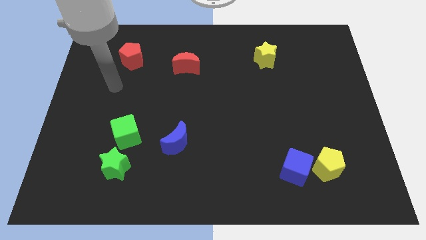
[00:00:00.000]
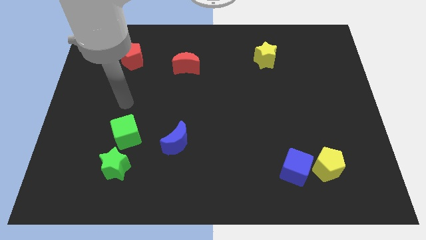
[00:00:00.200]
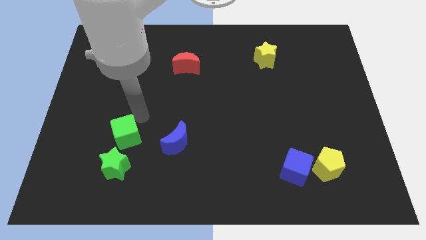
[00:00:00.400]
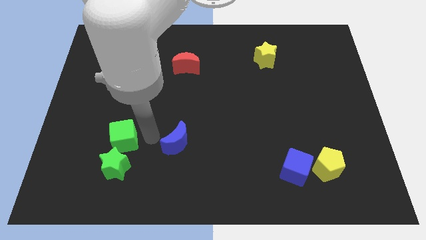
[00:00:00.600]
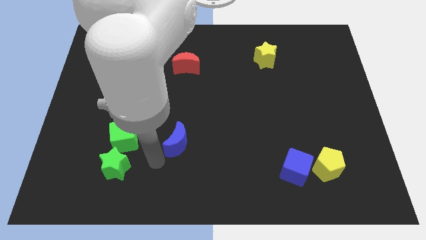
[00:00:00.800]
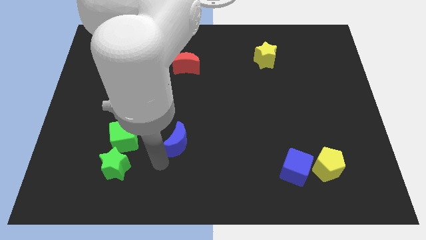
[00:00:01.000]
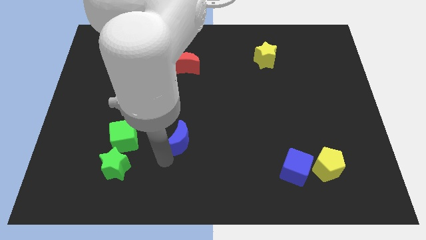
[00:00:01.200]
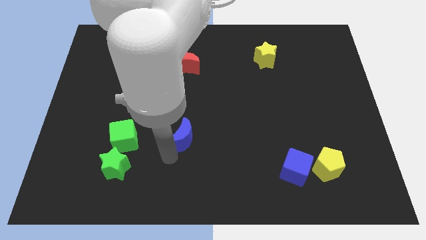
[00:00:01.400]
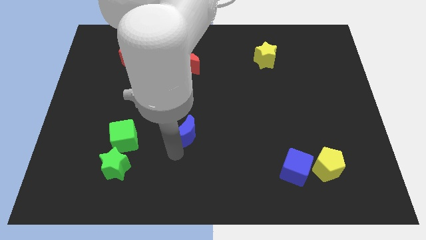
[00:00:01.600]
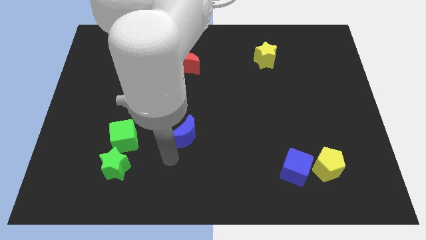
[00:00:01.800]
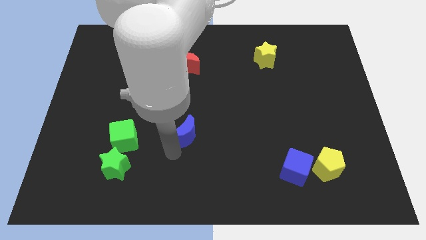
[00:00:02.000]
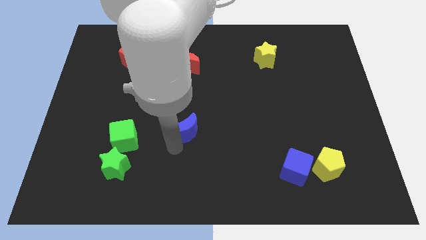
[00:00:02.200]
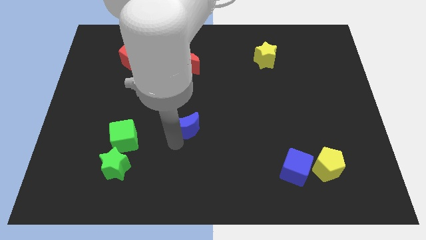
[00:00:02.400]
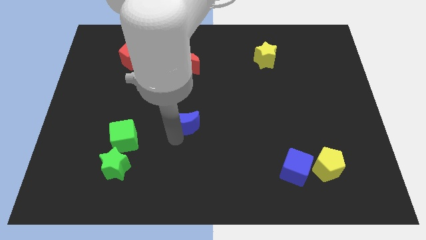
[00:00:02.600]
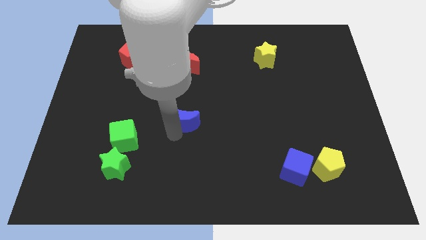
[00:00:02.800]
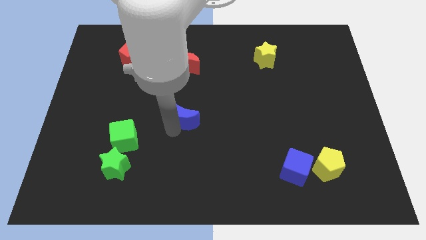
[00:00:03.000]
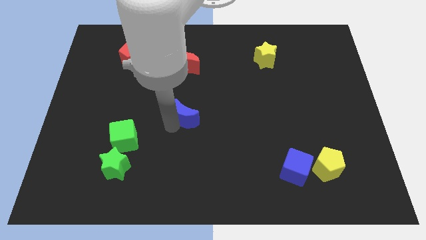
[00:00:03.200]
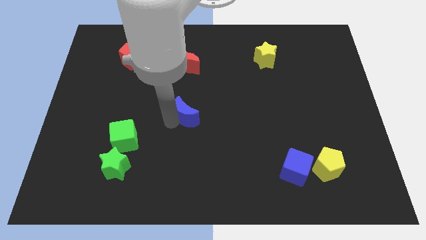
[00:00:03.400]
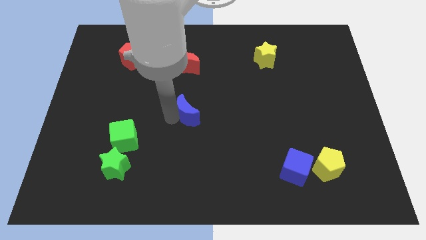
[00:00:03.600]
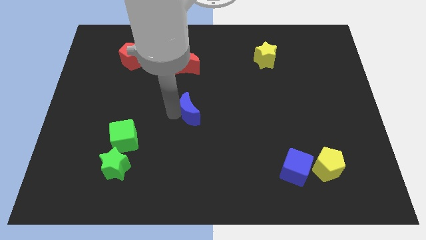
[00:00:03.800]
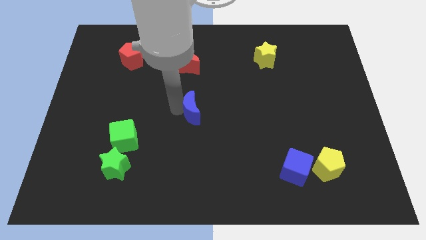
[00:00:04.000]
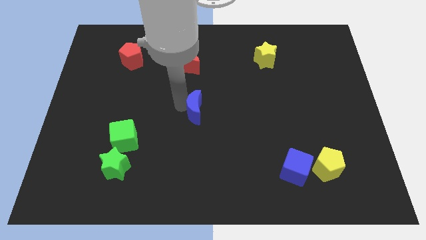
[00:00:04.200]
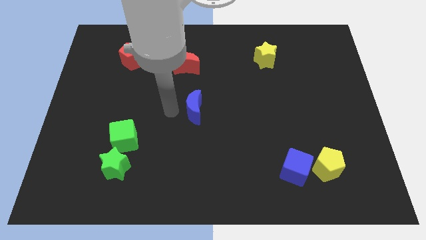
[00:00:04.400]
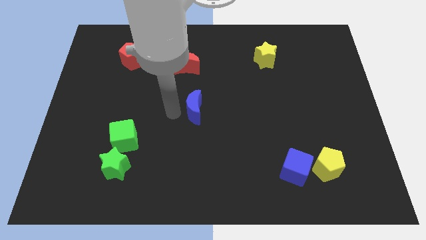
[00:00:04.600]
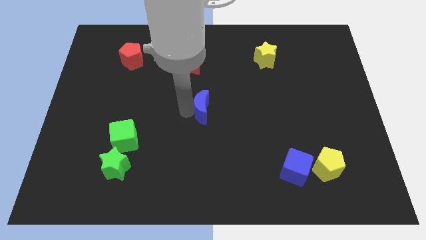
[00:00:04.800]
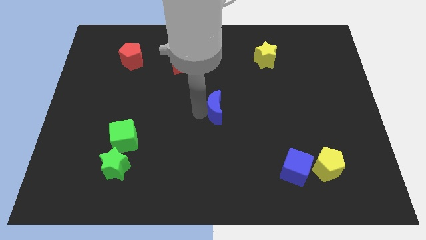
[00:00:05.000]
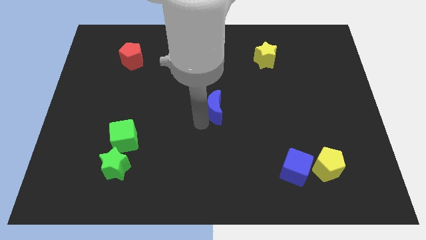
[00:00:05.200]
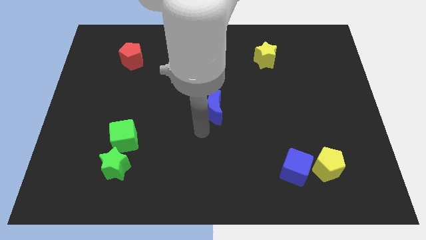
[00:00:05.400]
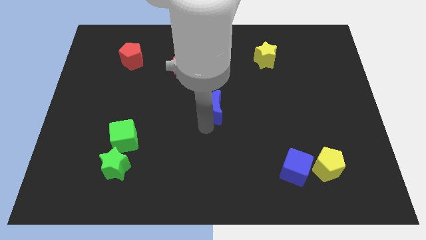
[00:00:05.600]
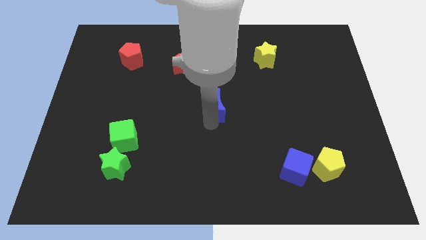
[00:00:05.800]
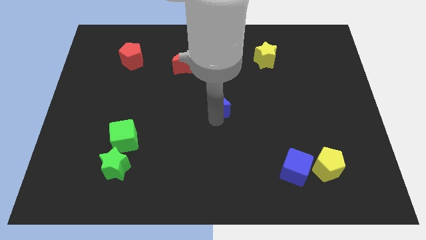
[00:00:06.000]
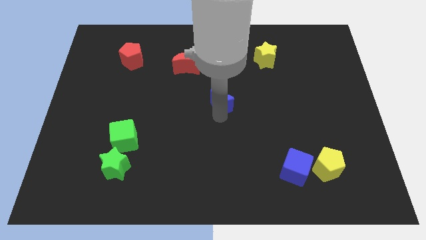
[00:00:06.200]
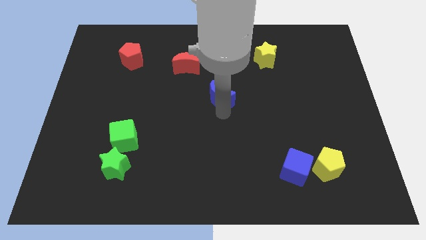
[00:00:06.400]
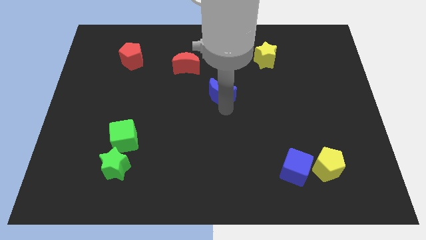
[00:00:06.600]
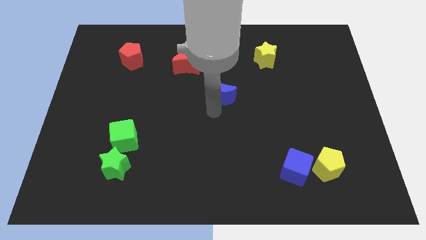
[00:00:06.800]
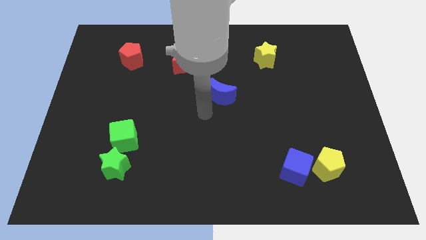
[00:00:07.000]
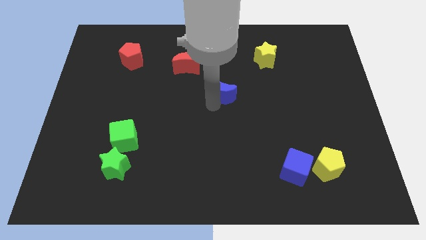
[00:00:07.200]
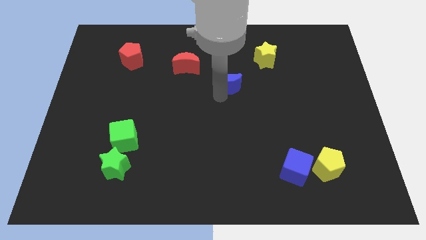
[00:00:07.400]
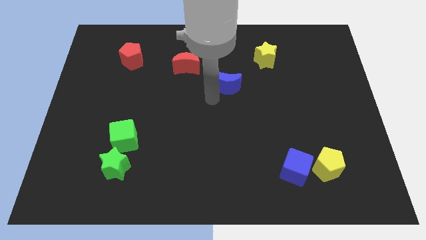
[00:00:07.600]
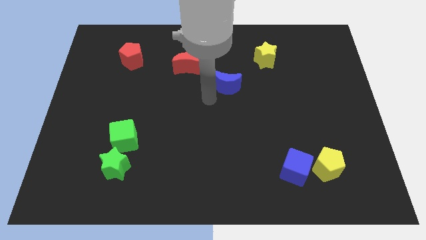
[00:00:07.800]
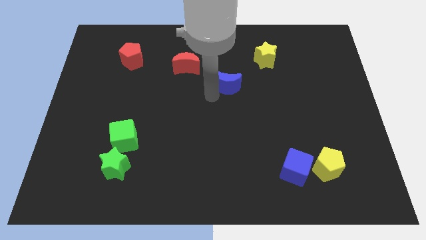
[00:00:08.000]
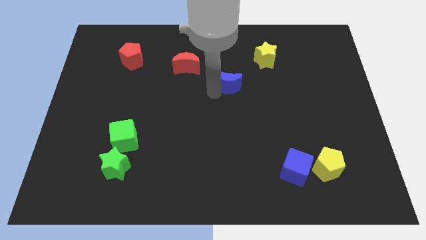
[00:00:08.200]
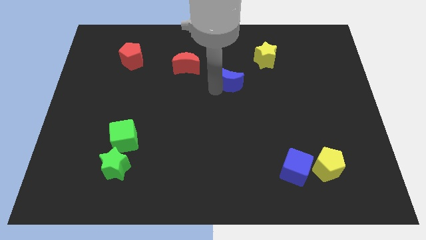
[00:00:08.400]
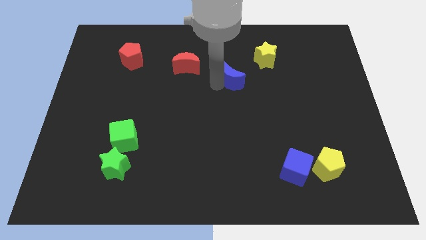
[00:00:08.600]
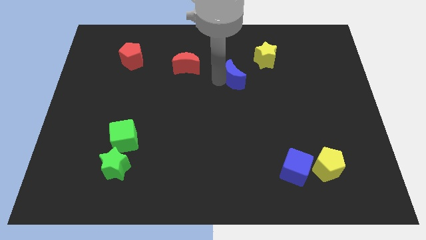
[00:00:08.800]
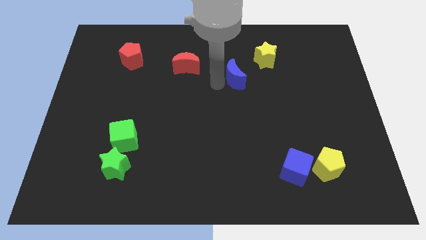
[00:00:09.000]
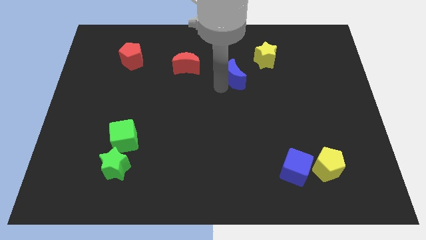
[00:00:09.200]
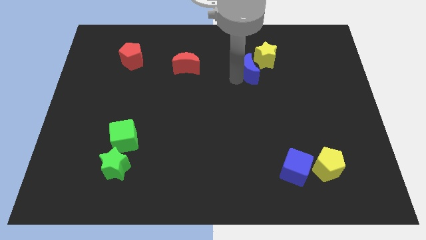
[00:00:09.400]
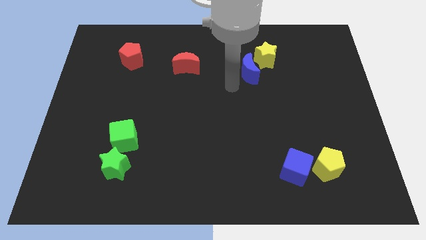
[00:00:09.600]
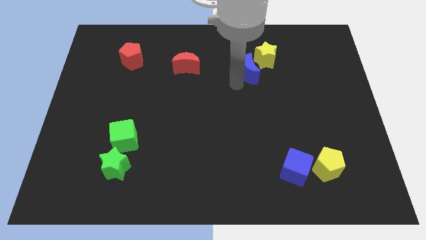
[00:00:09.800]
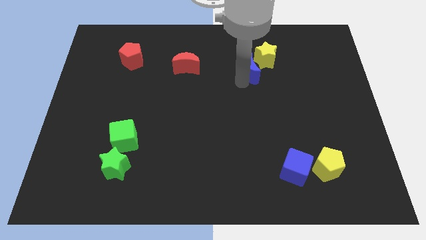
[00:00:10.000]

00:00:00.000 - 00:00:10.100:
move the blue moon close to the yellow star

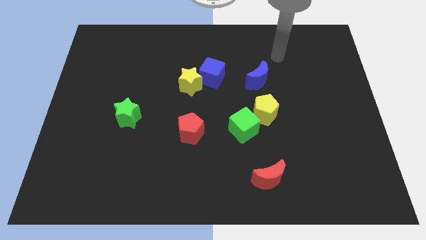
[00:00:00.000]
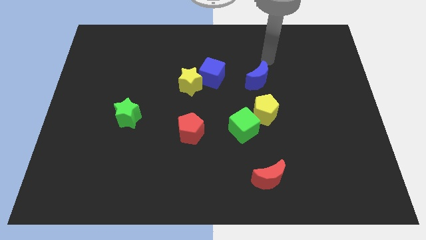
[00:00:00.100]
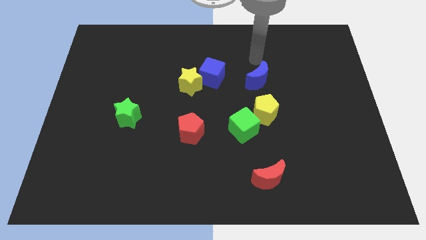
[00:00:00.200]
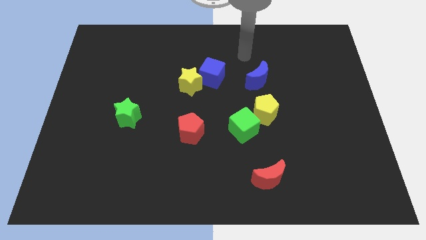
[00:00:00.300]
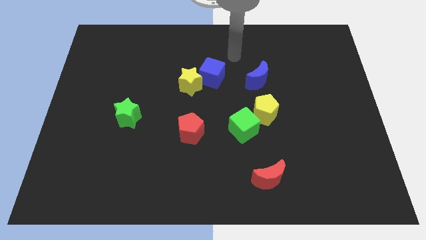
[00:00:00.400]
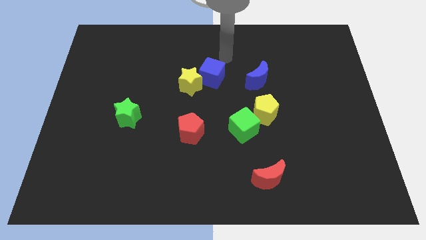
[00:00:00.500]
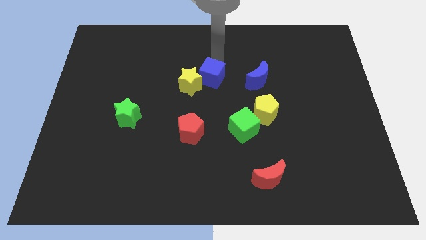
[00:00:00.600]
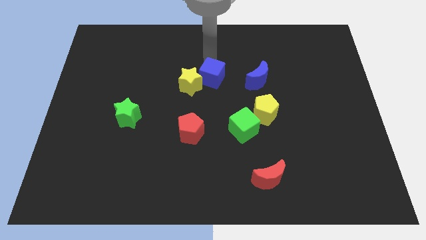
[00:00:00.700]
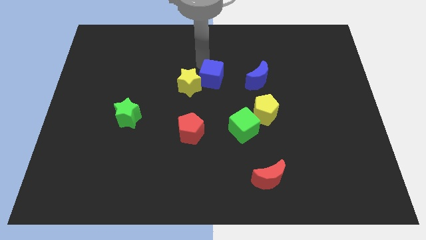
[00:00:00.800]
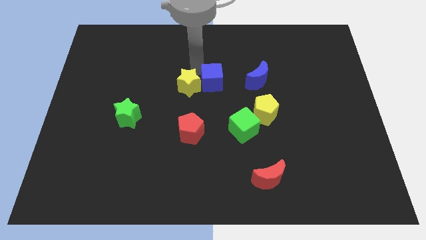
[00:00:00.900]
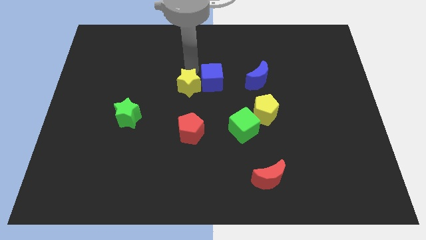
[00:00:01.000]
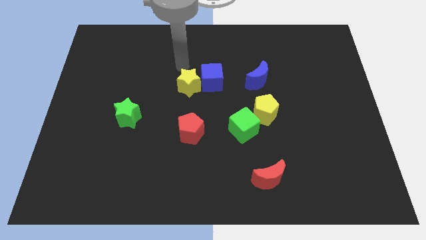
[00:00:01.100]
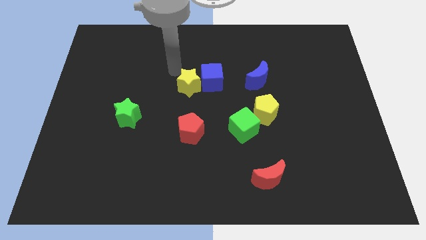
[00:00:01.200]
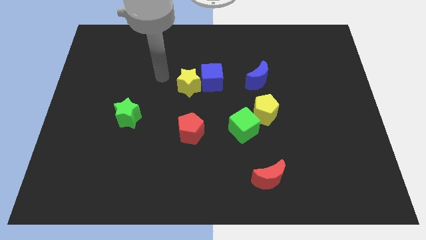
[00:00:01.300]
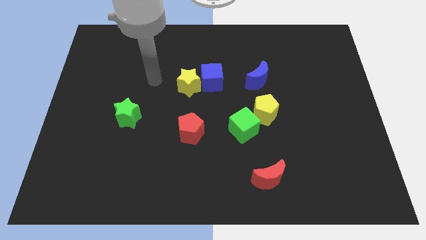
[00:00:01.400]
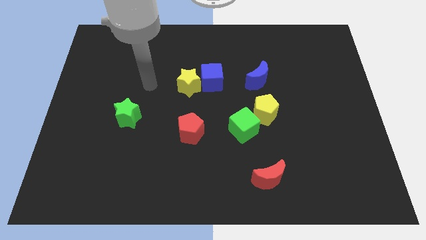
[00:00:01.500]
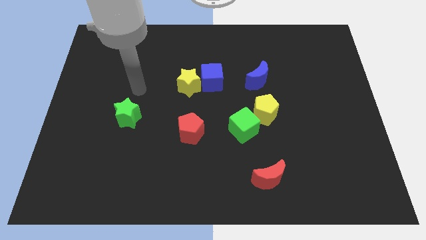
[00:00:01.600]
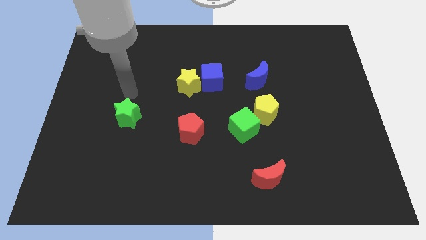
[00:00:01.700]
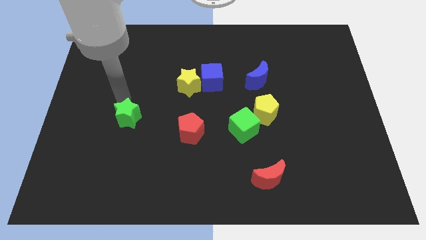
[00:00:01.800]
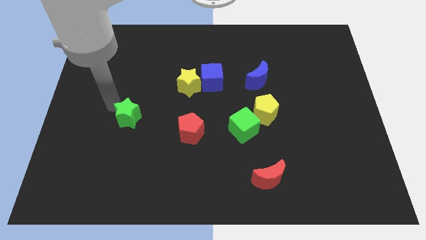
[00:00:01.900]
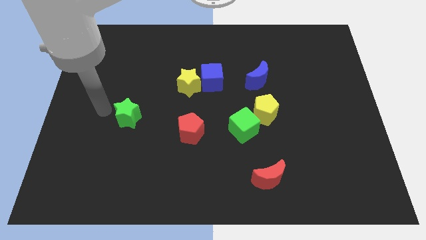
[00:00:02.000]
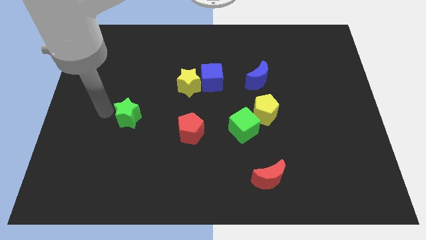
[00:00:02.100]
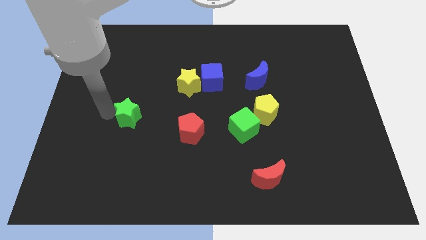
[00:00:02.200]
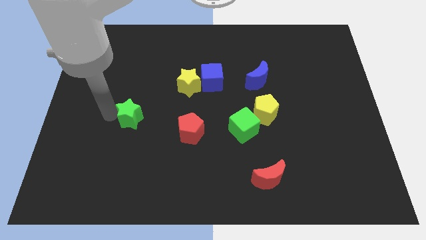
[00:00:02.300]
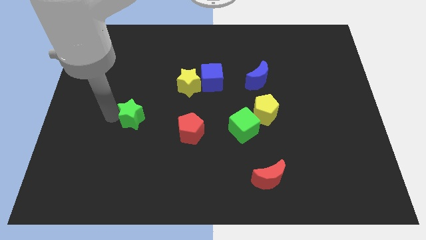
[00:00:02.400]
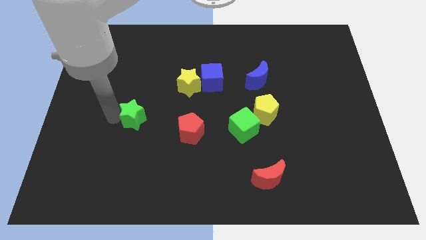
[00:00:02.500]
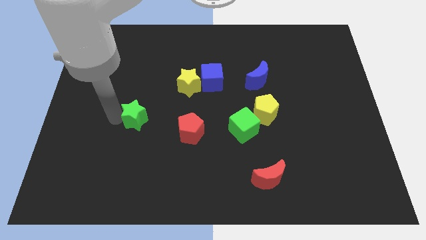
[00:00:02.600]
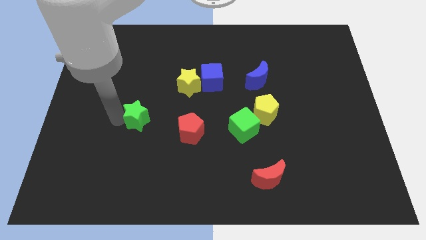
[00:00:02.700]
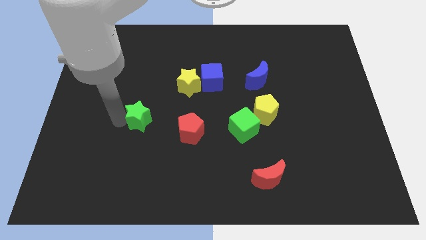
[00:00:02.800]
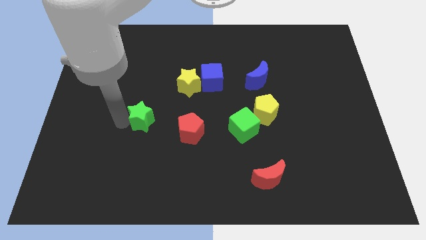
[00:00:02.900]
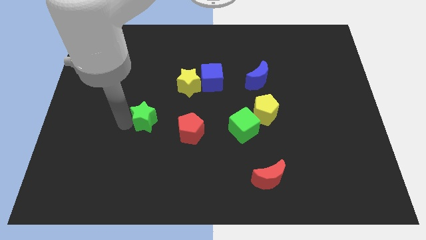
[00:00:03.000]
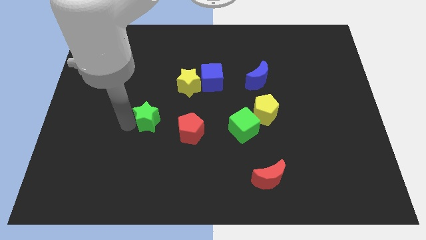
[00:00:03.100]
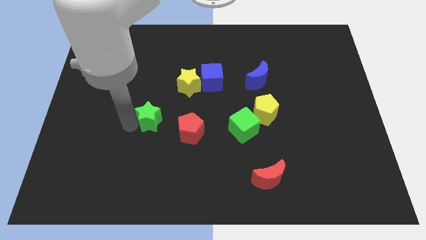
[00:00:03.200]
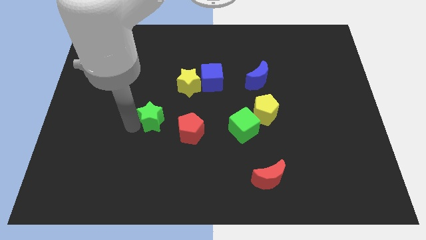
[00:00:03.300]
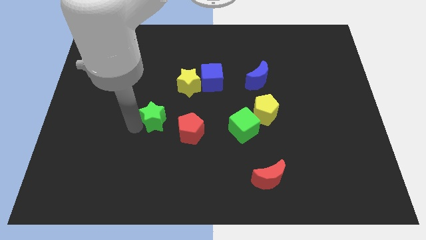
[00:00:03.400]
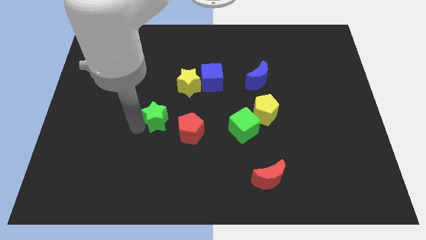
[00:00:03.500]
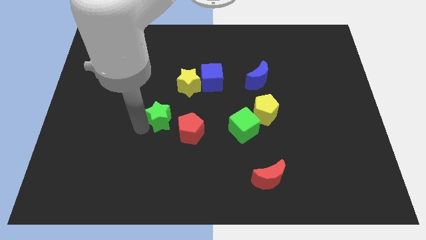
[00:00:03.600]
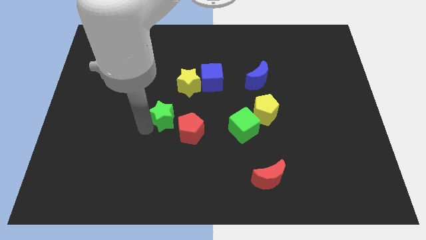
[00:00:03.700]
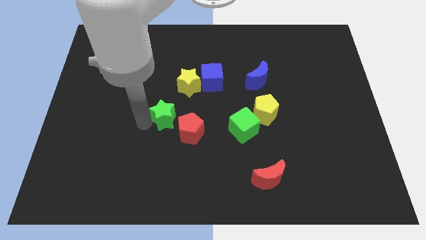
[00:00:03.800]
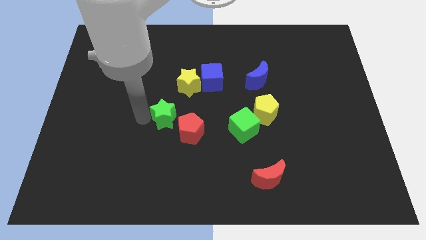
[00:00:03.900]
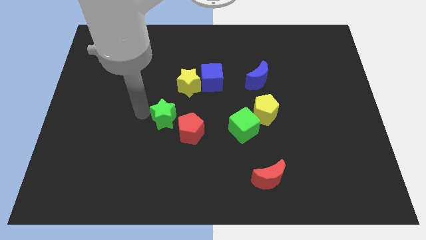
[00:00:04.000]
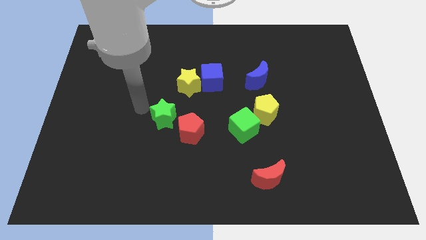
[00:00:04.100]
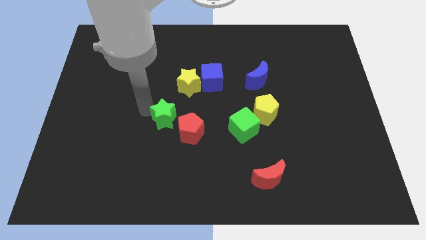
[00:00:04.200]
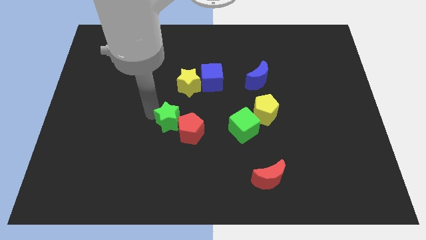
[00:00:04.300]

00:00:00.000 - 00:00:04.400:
slide the green star close to the red pentagon
